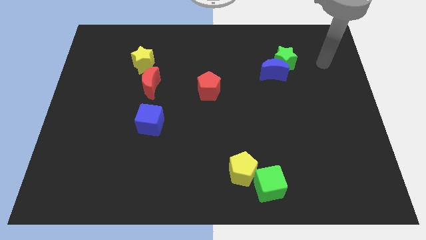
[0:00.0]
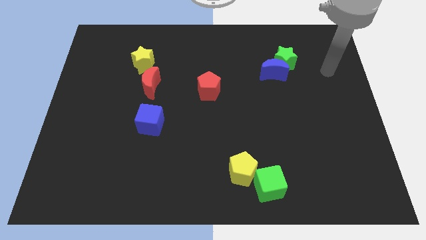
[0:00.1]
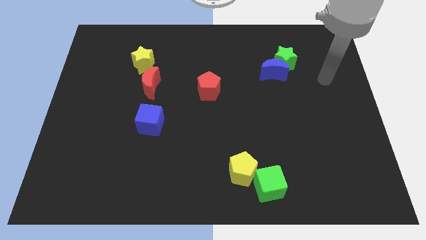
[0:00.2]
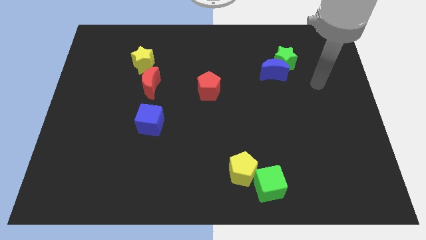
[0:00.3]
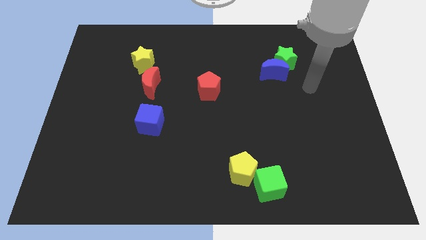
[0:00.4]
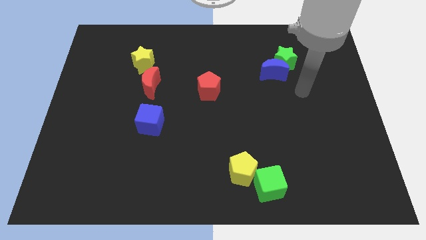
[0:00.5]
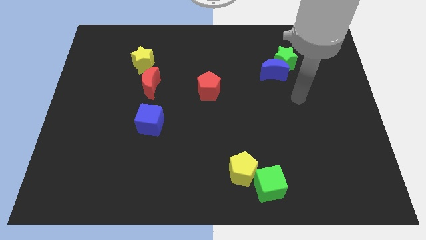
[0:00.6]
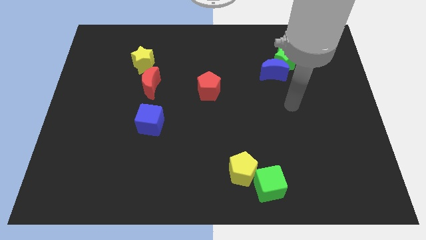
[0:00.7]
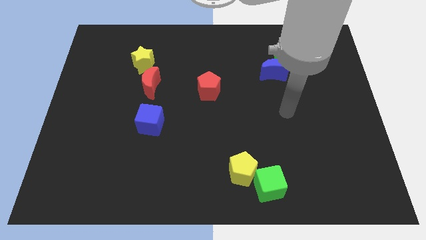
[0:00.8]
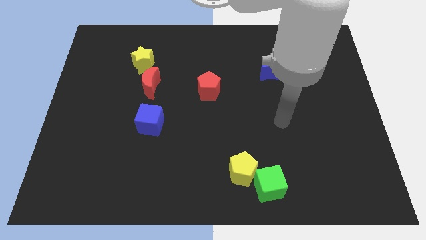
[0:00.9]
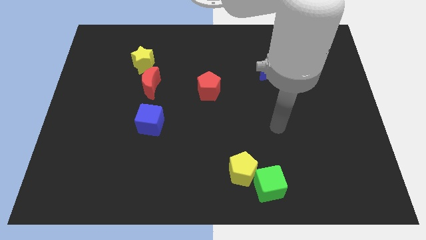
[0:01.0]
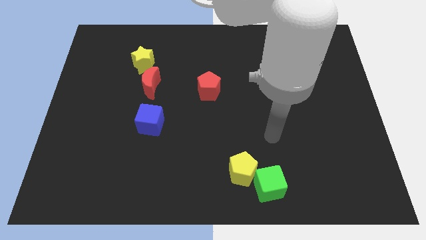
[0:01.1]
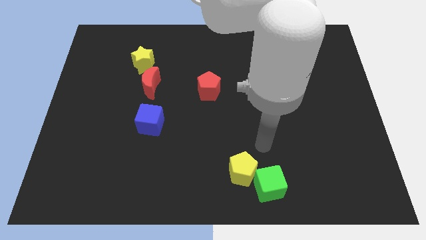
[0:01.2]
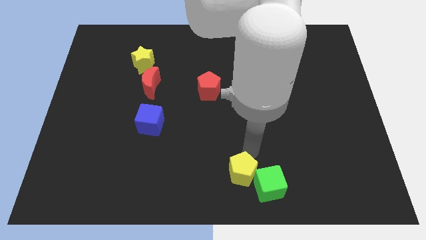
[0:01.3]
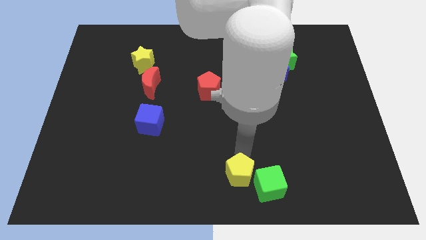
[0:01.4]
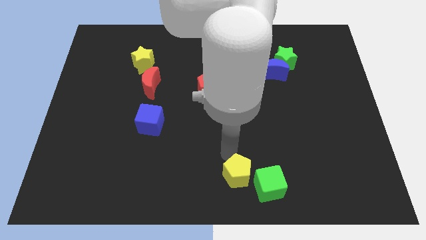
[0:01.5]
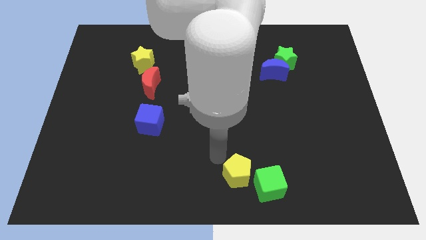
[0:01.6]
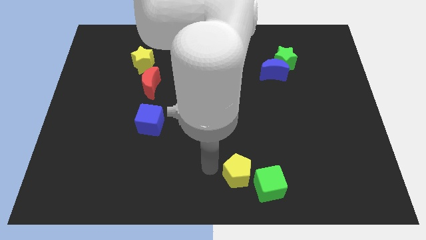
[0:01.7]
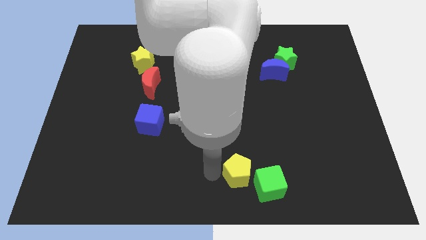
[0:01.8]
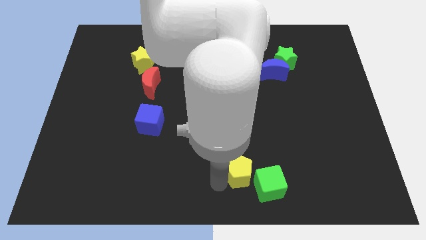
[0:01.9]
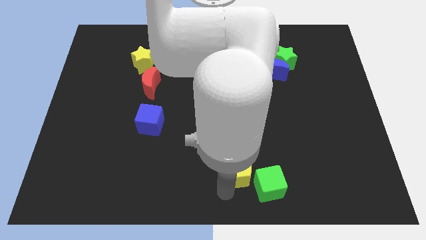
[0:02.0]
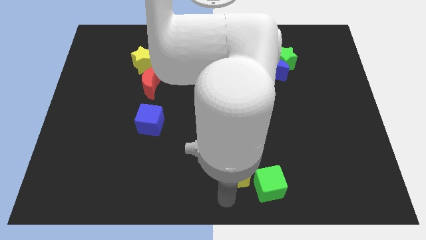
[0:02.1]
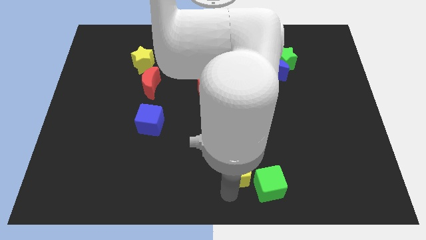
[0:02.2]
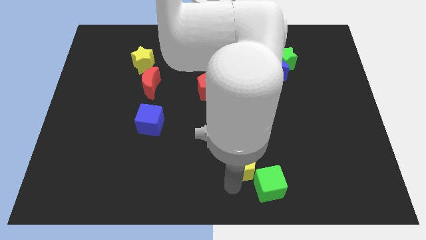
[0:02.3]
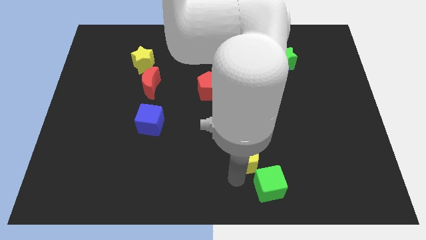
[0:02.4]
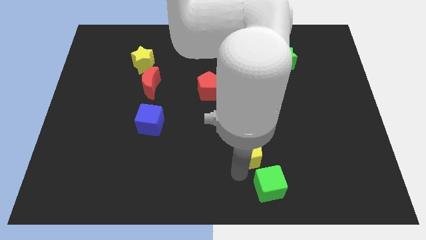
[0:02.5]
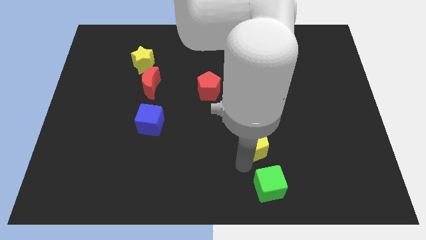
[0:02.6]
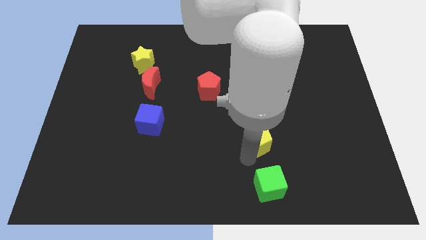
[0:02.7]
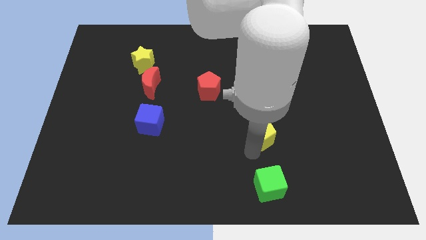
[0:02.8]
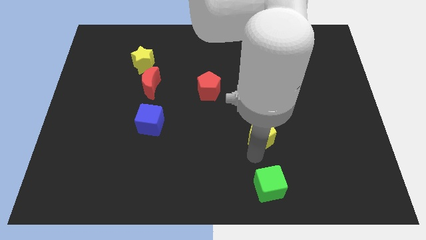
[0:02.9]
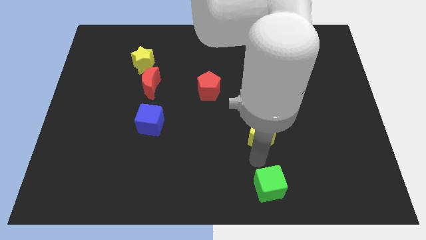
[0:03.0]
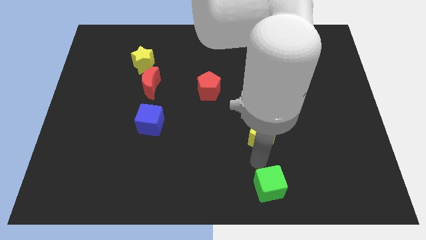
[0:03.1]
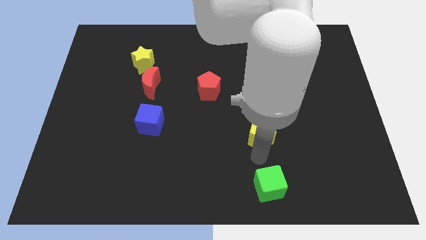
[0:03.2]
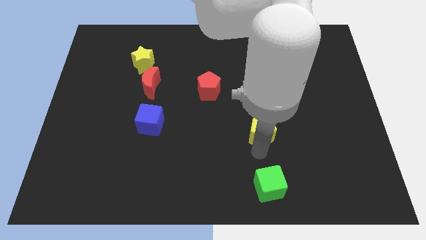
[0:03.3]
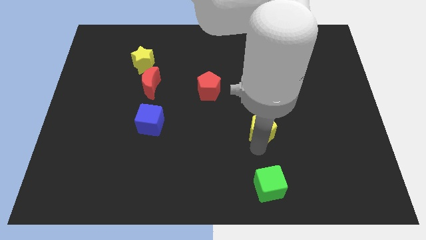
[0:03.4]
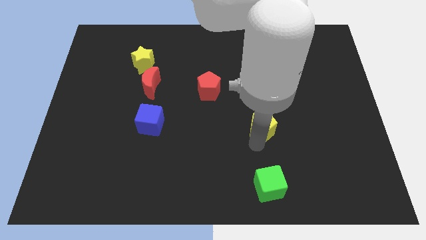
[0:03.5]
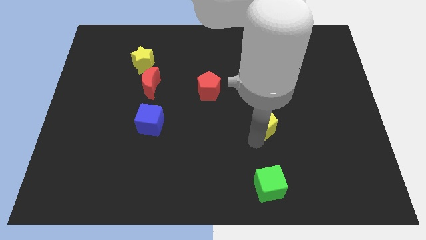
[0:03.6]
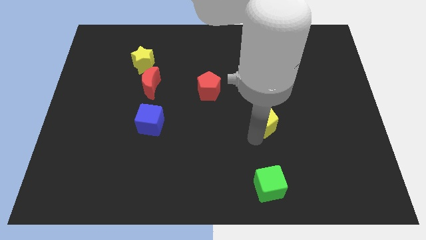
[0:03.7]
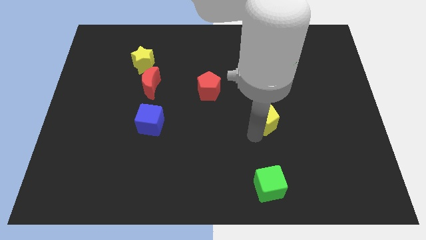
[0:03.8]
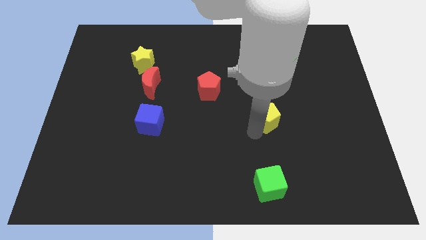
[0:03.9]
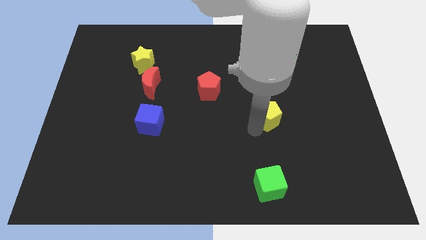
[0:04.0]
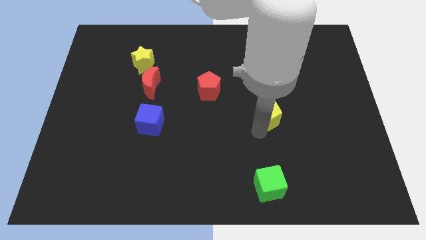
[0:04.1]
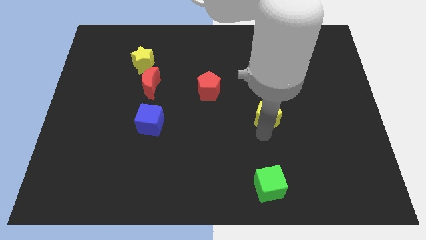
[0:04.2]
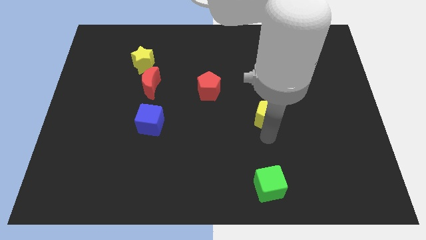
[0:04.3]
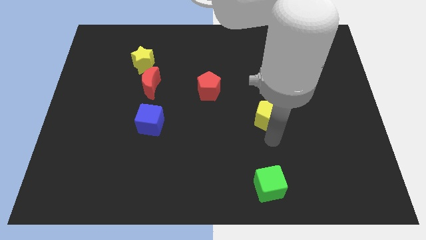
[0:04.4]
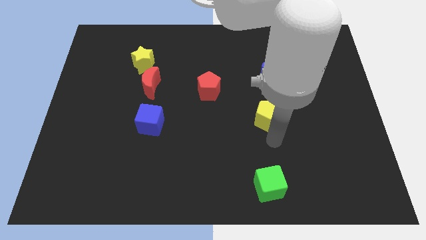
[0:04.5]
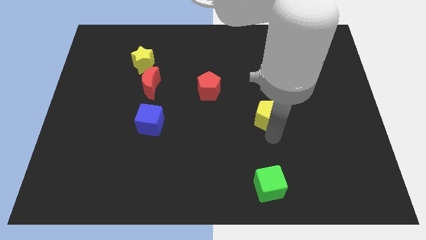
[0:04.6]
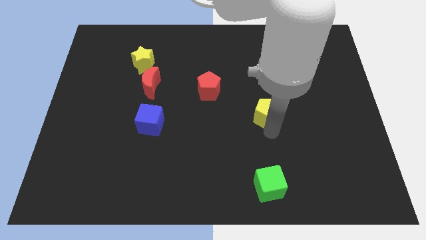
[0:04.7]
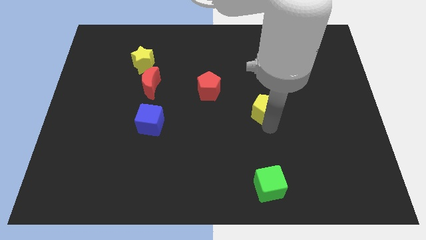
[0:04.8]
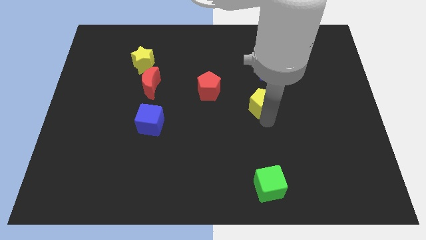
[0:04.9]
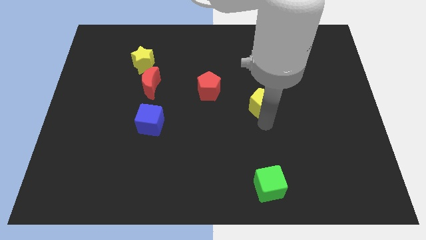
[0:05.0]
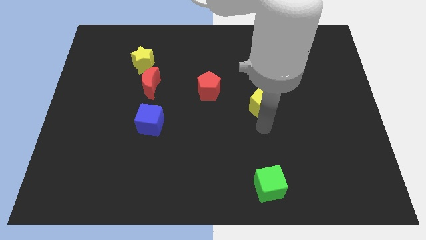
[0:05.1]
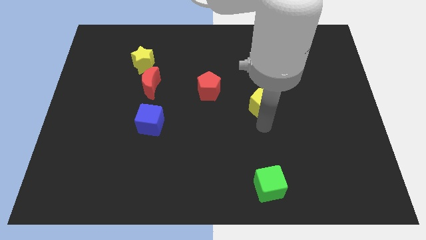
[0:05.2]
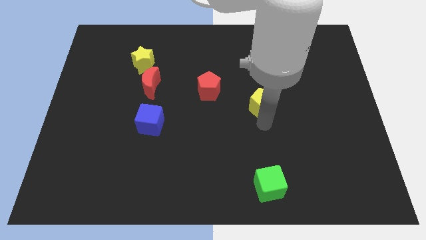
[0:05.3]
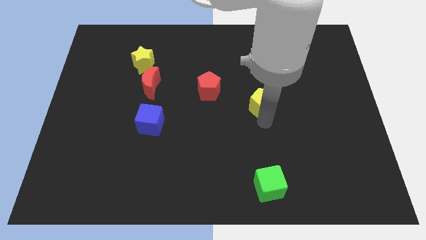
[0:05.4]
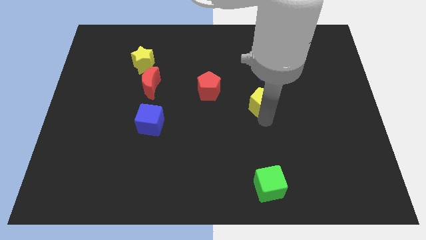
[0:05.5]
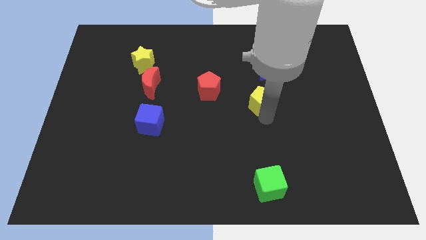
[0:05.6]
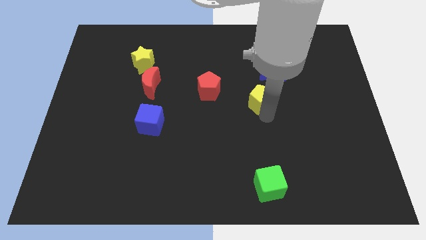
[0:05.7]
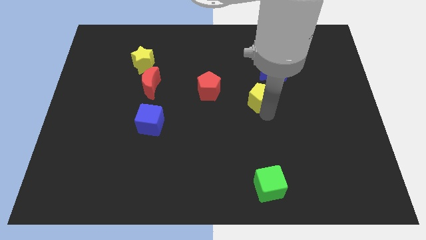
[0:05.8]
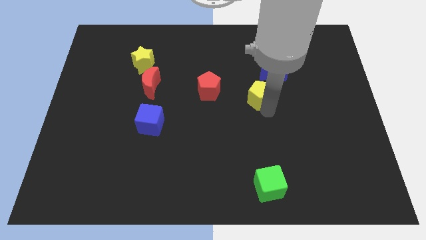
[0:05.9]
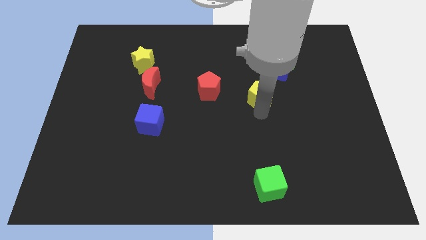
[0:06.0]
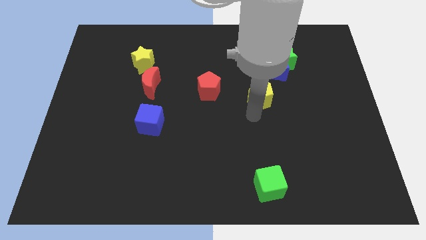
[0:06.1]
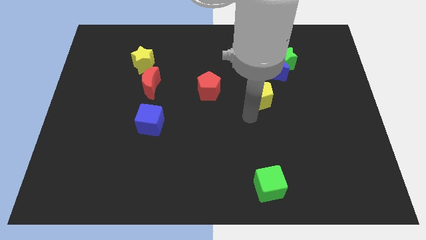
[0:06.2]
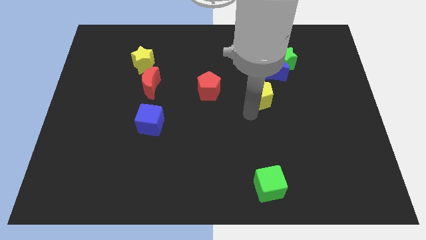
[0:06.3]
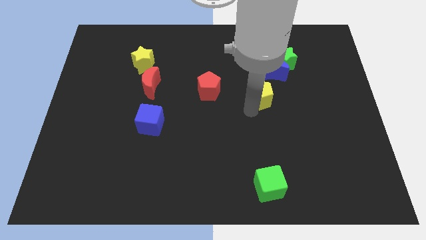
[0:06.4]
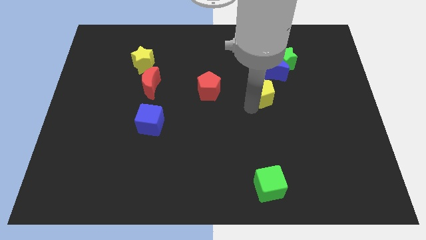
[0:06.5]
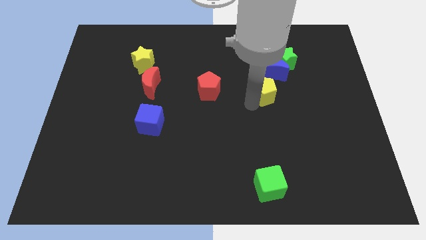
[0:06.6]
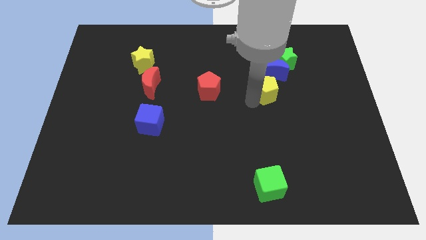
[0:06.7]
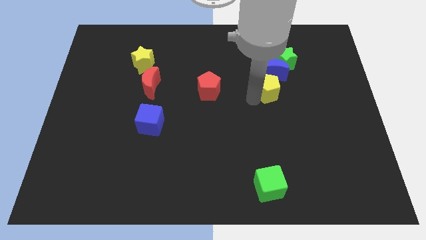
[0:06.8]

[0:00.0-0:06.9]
push the yellow pentagon towards the blue moon

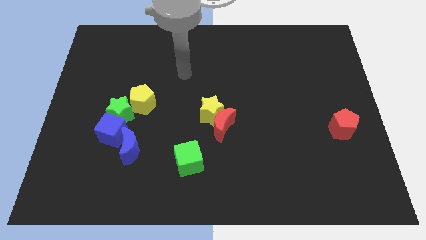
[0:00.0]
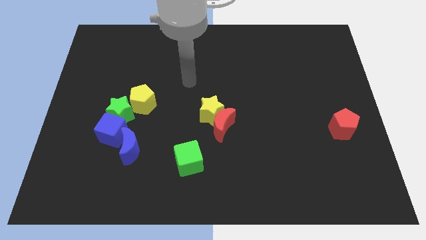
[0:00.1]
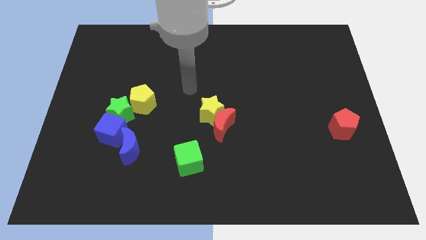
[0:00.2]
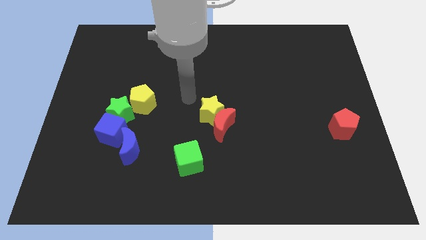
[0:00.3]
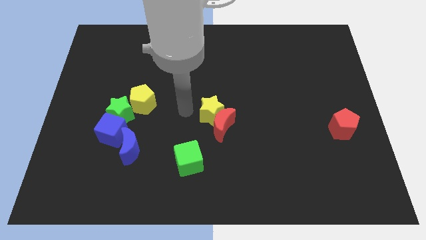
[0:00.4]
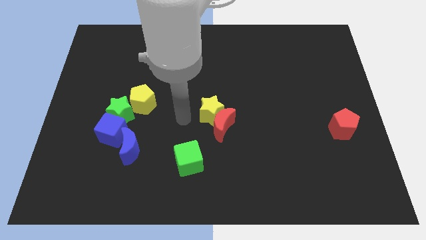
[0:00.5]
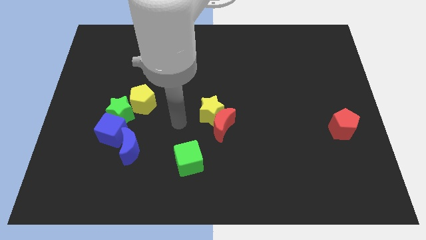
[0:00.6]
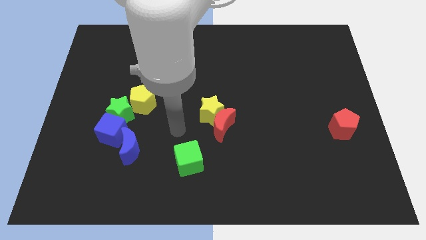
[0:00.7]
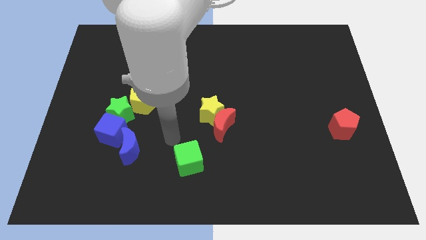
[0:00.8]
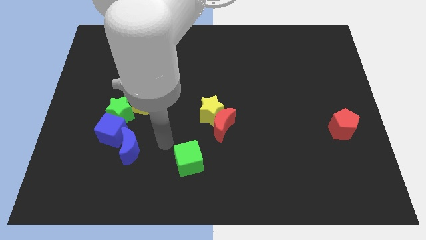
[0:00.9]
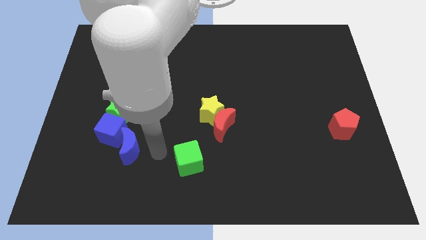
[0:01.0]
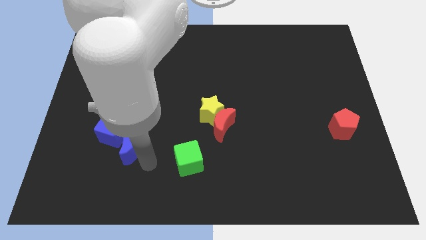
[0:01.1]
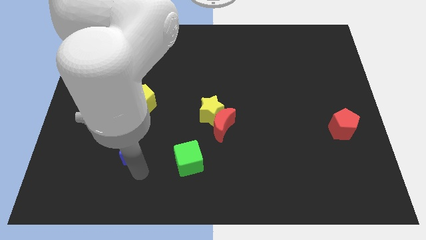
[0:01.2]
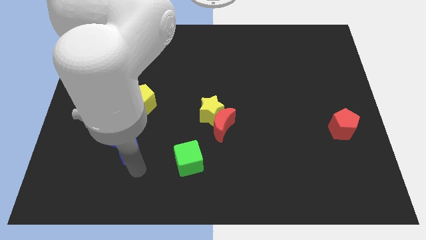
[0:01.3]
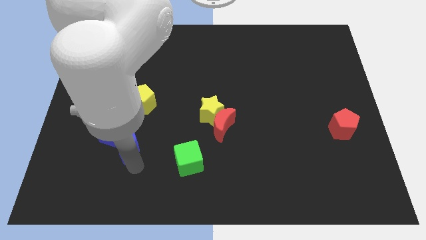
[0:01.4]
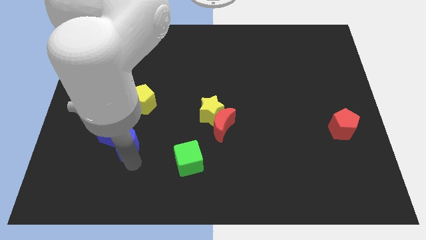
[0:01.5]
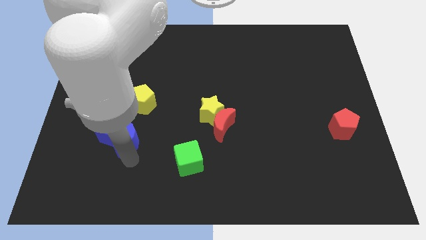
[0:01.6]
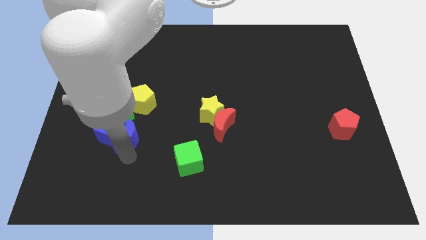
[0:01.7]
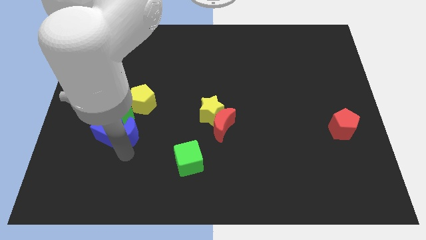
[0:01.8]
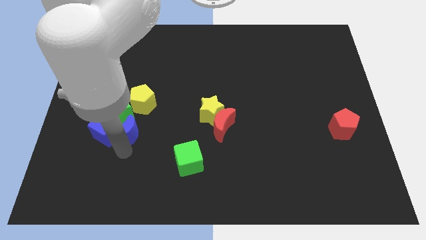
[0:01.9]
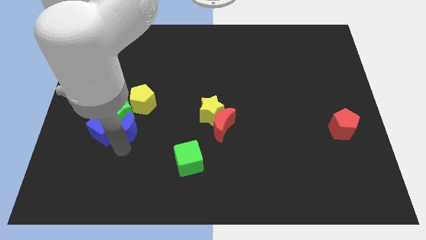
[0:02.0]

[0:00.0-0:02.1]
put the blue moon close to the green star
